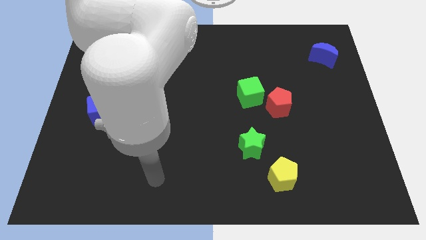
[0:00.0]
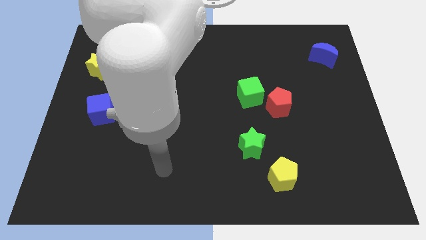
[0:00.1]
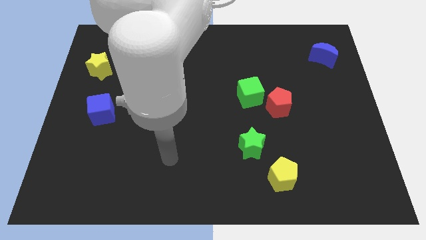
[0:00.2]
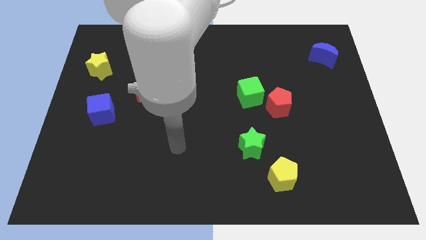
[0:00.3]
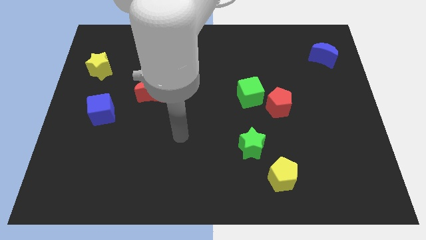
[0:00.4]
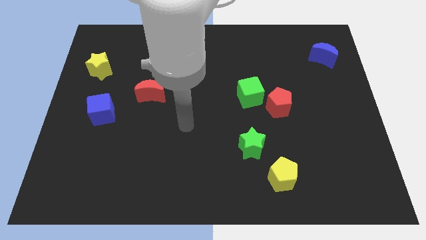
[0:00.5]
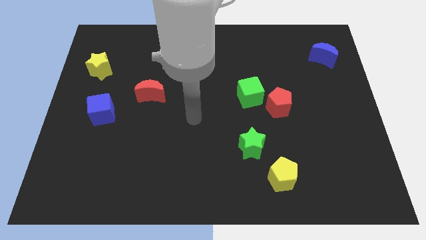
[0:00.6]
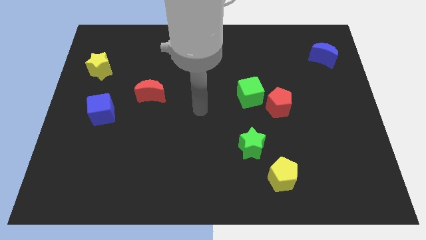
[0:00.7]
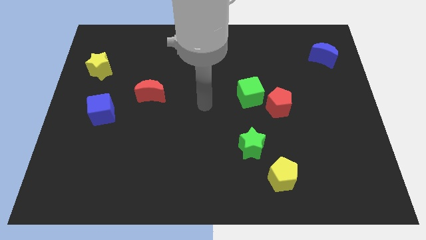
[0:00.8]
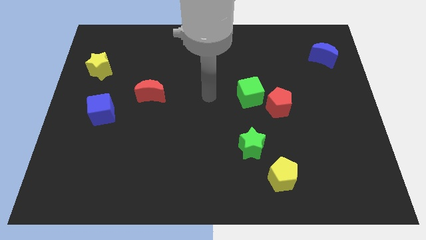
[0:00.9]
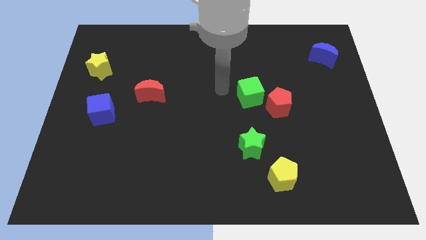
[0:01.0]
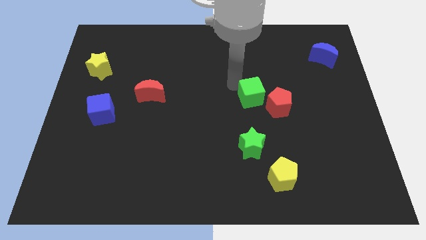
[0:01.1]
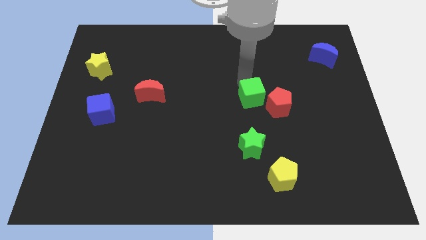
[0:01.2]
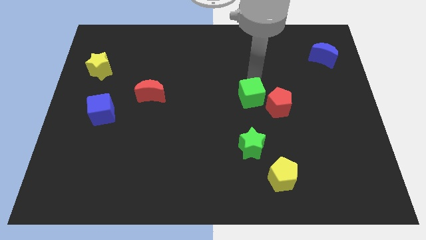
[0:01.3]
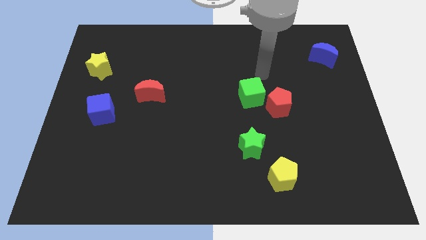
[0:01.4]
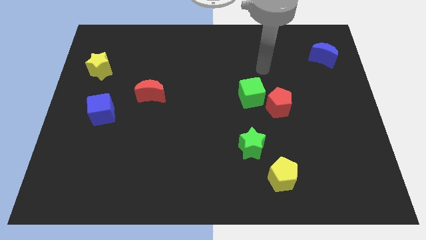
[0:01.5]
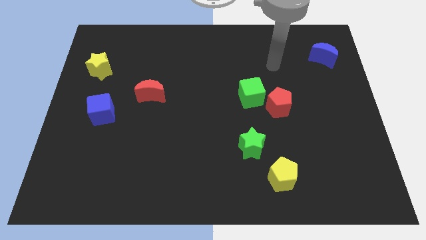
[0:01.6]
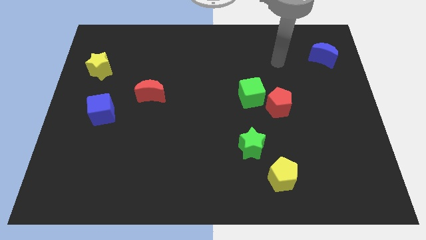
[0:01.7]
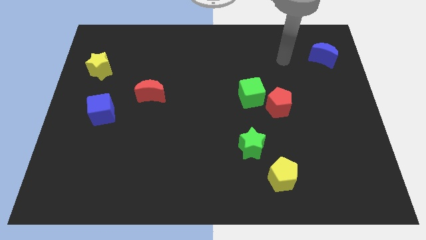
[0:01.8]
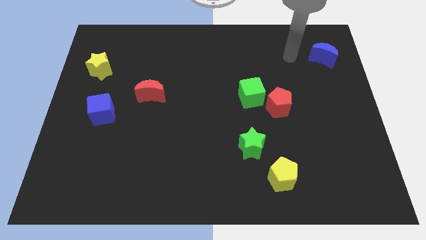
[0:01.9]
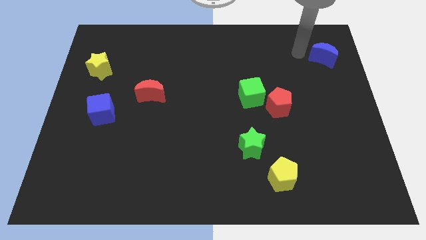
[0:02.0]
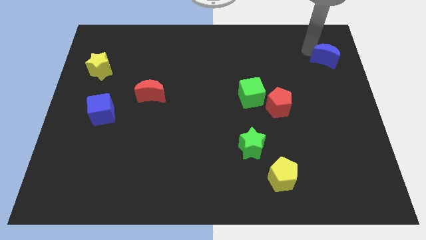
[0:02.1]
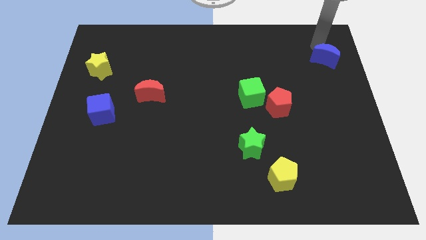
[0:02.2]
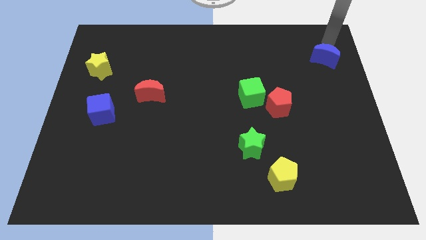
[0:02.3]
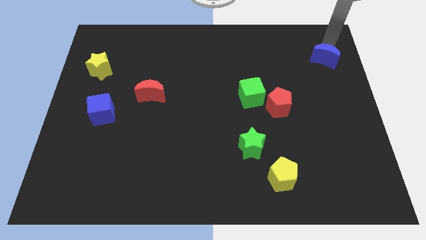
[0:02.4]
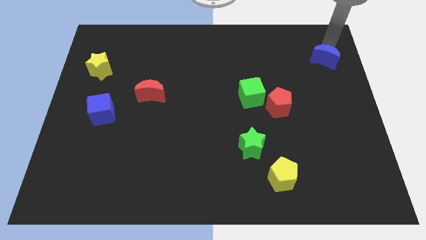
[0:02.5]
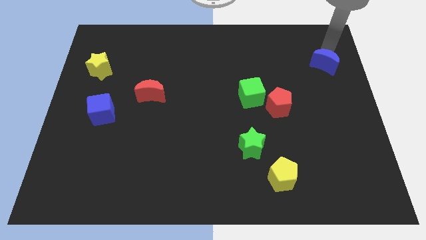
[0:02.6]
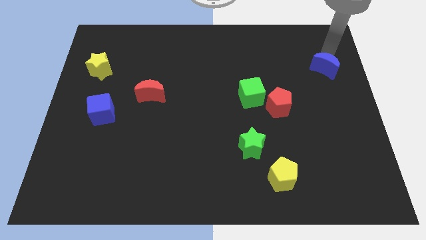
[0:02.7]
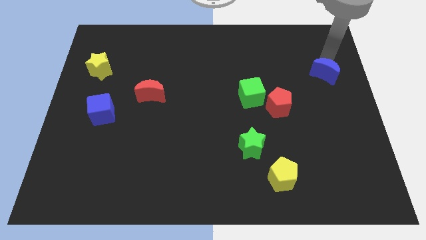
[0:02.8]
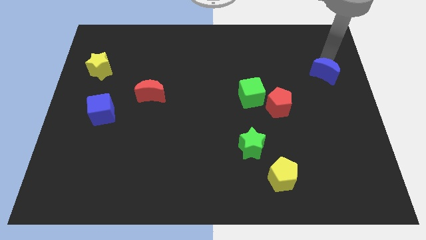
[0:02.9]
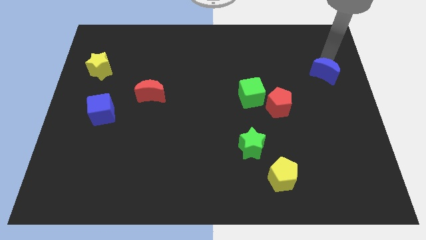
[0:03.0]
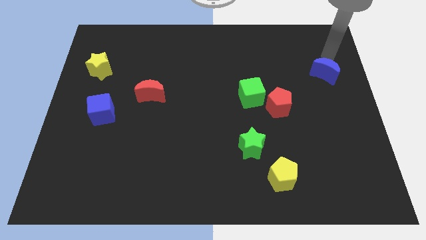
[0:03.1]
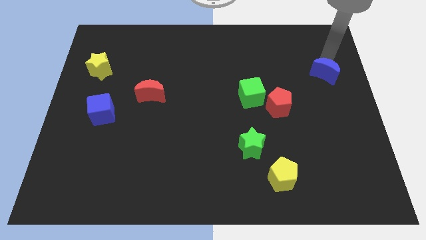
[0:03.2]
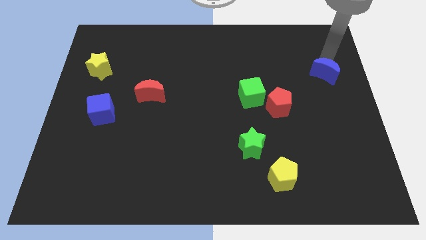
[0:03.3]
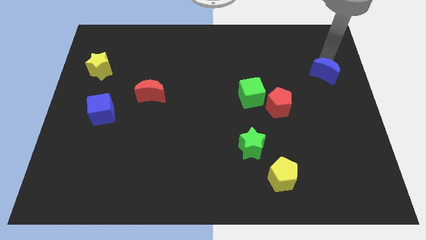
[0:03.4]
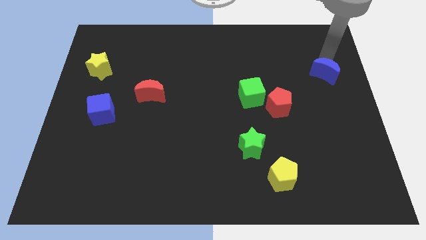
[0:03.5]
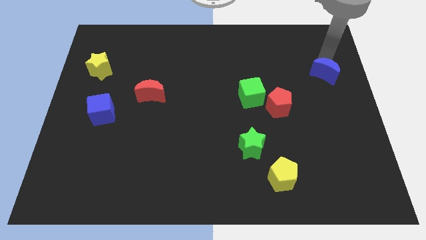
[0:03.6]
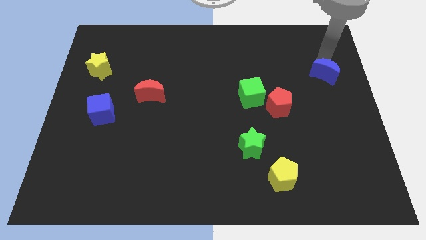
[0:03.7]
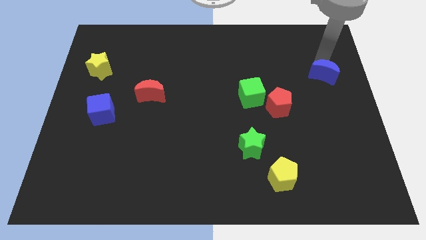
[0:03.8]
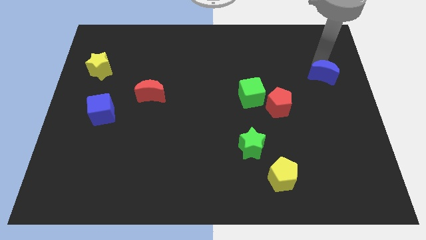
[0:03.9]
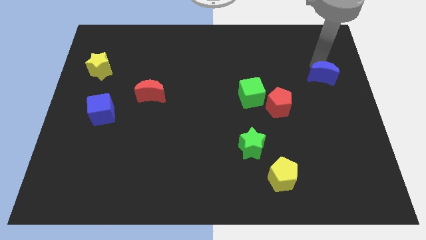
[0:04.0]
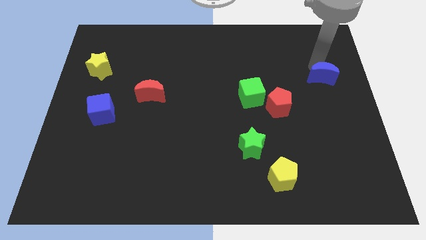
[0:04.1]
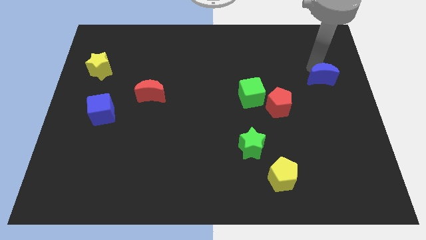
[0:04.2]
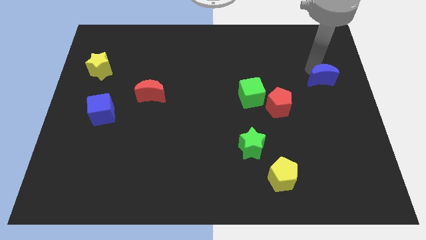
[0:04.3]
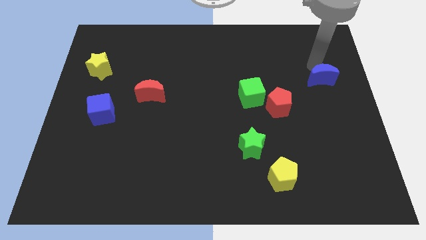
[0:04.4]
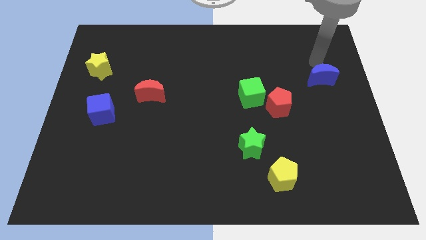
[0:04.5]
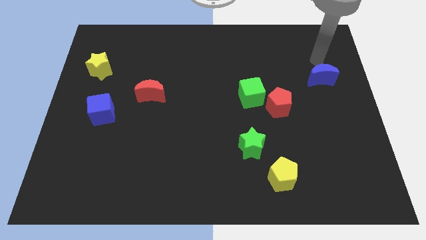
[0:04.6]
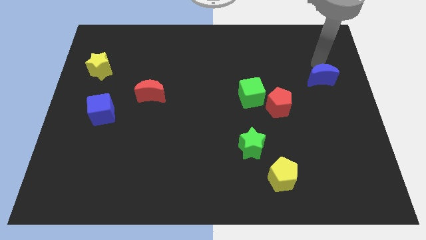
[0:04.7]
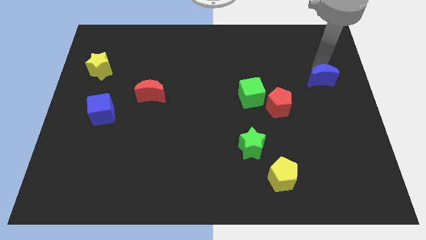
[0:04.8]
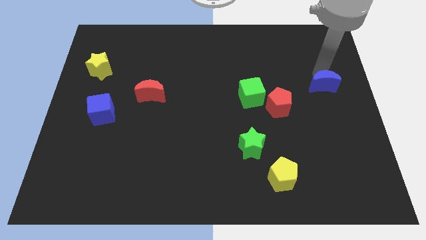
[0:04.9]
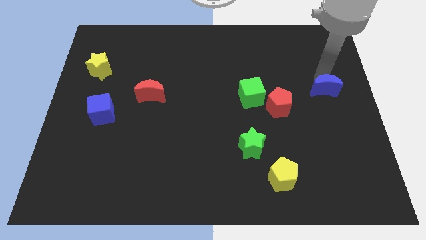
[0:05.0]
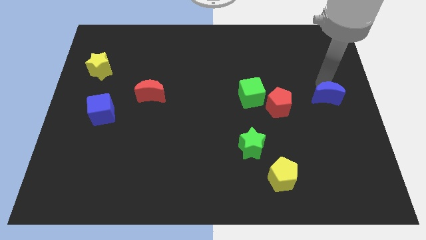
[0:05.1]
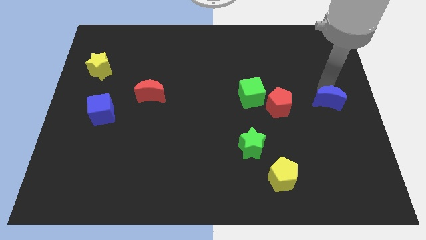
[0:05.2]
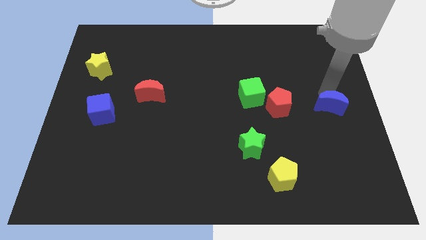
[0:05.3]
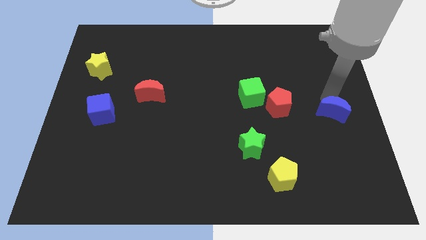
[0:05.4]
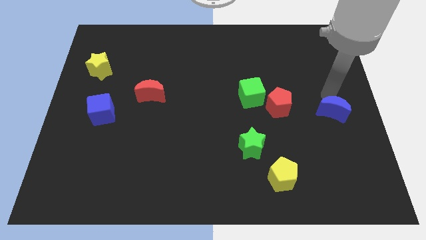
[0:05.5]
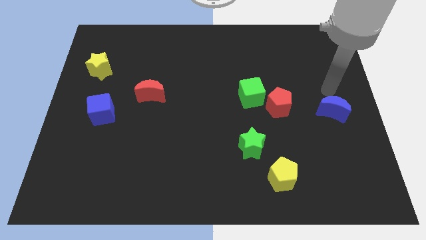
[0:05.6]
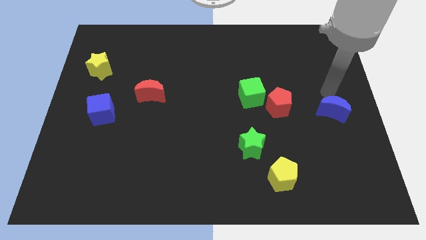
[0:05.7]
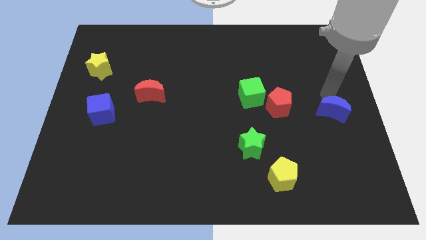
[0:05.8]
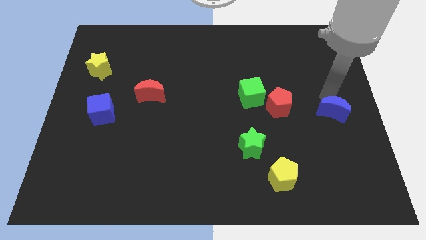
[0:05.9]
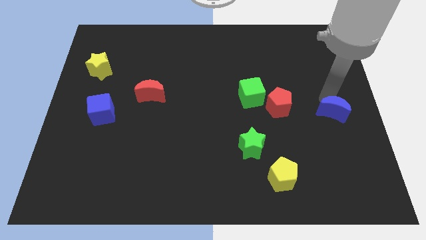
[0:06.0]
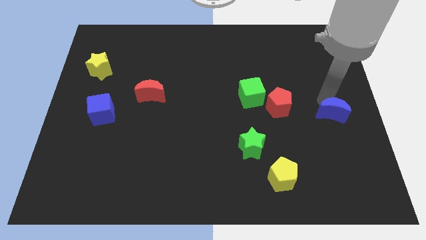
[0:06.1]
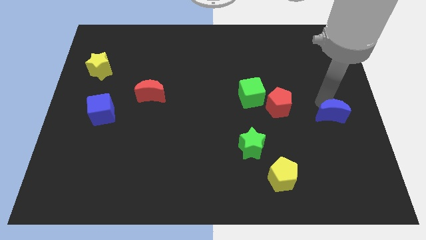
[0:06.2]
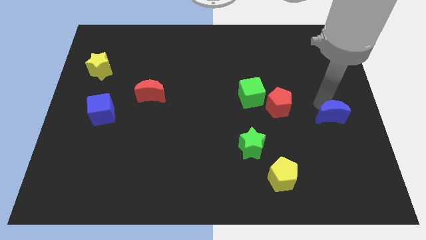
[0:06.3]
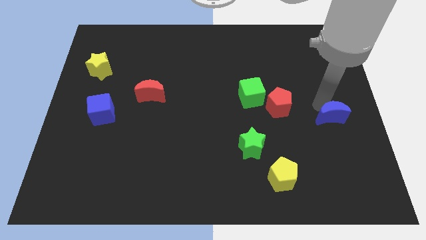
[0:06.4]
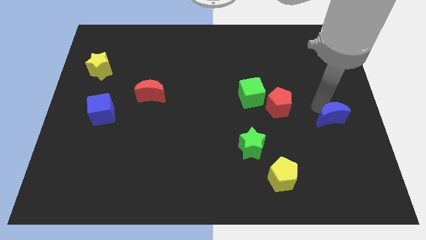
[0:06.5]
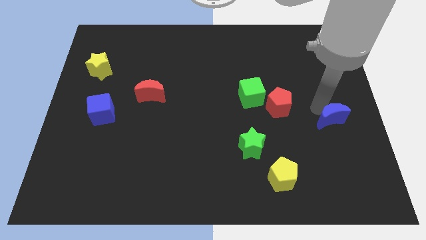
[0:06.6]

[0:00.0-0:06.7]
push the blue moon downwards

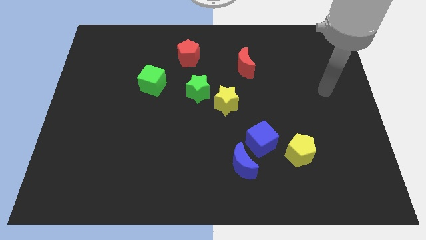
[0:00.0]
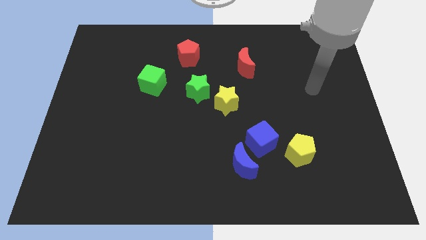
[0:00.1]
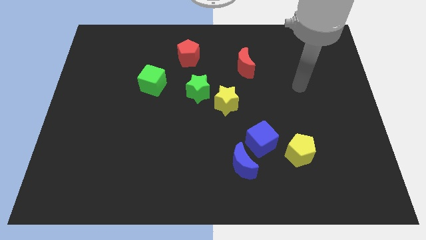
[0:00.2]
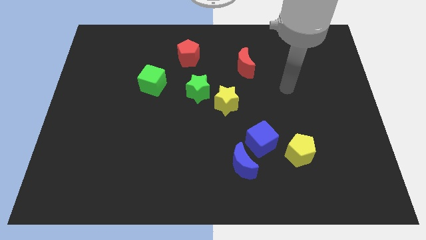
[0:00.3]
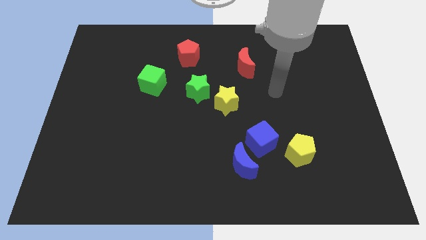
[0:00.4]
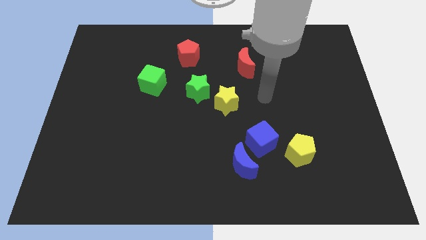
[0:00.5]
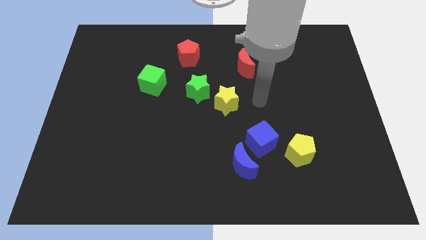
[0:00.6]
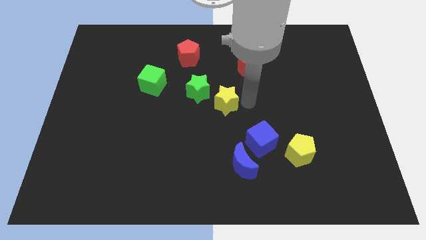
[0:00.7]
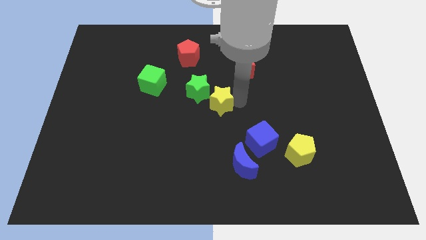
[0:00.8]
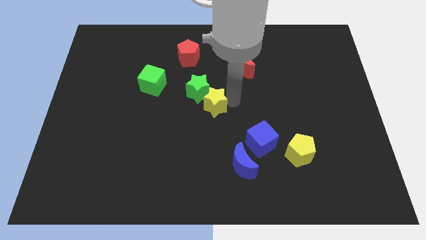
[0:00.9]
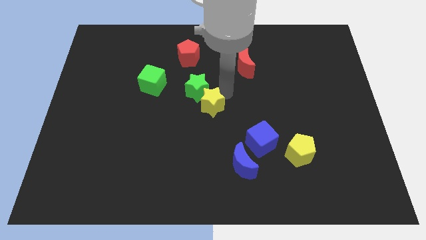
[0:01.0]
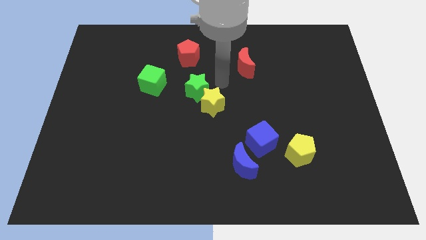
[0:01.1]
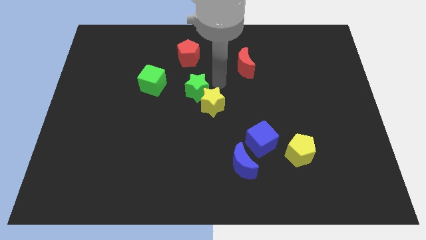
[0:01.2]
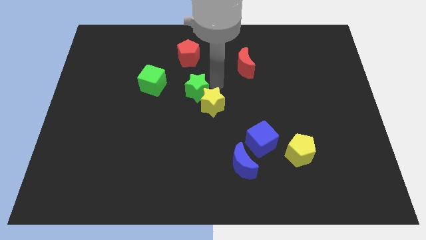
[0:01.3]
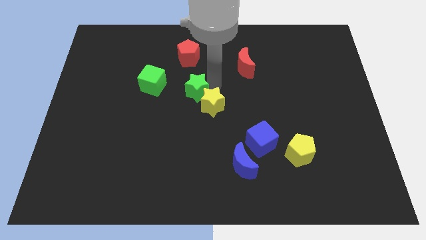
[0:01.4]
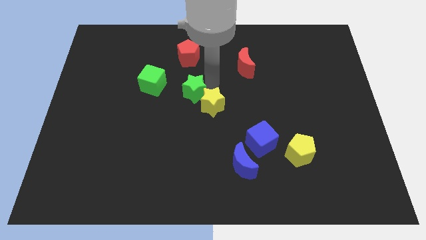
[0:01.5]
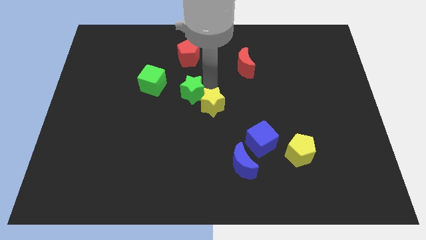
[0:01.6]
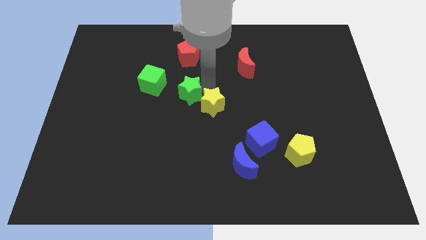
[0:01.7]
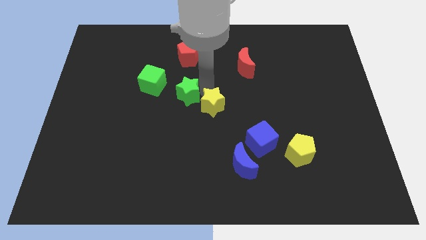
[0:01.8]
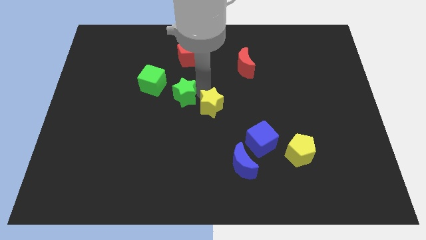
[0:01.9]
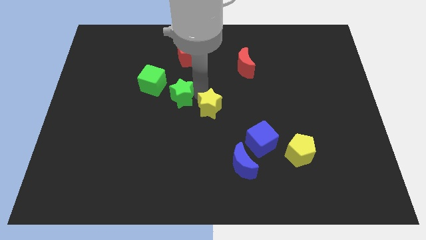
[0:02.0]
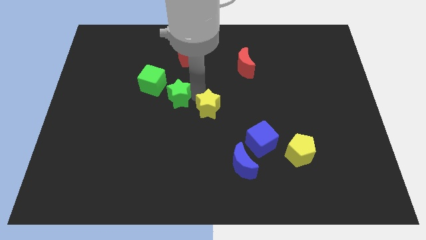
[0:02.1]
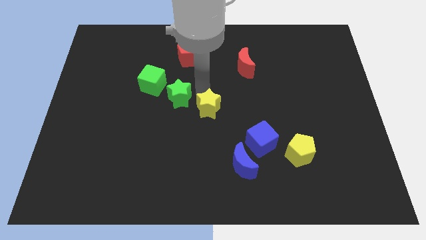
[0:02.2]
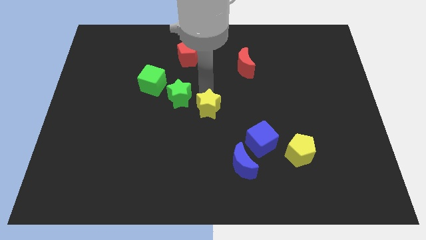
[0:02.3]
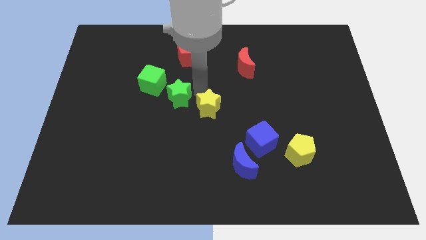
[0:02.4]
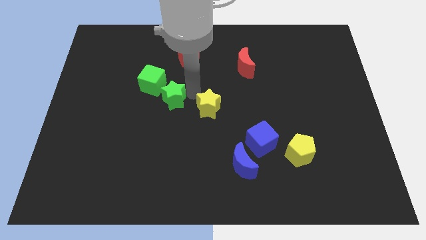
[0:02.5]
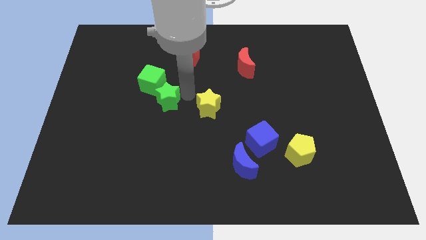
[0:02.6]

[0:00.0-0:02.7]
slide the green star left a bit
